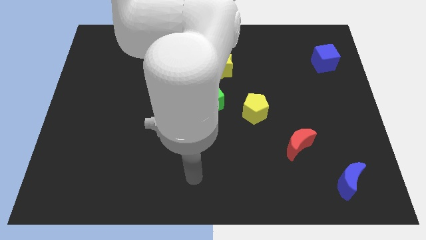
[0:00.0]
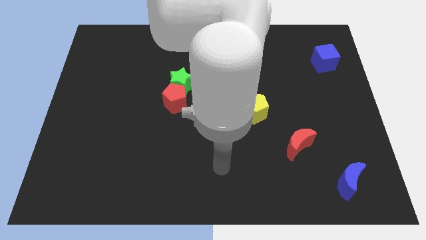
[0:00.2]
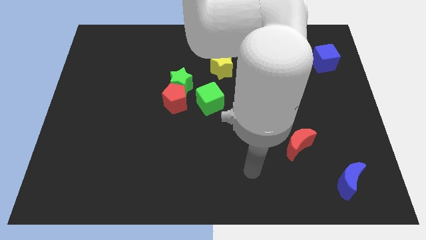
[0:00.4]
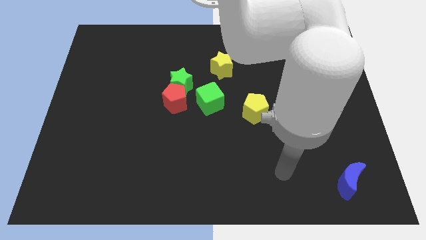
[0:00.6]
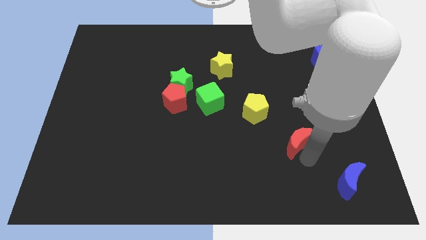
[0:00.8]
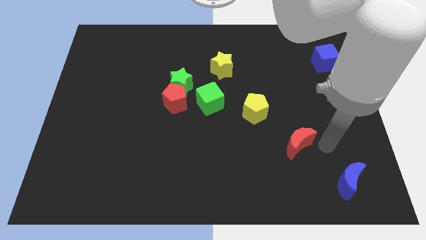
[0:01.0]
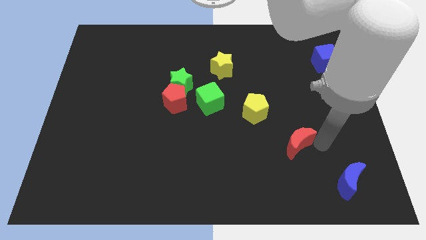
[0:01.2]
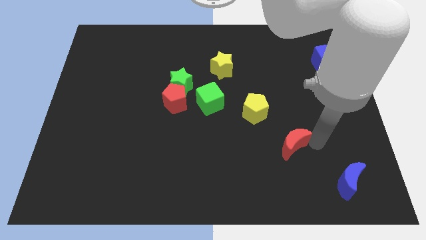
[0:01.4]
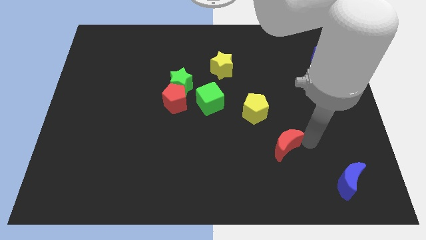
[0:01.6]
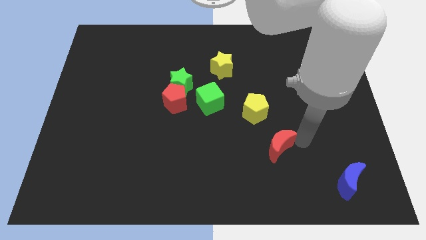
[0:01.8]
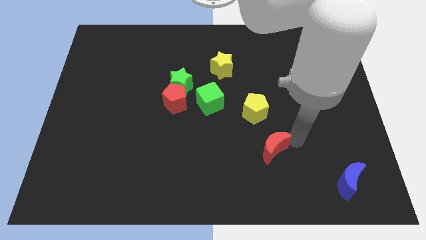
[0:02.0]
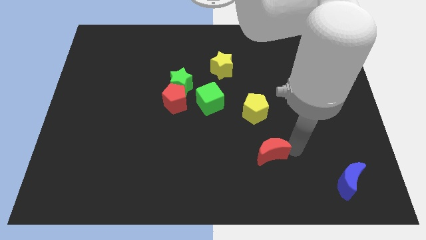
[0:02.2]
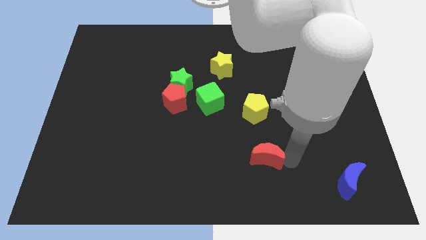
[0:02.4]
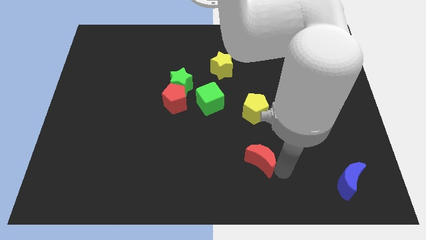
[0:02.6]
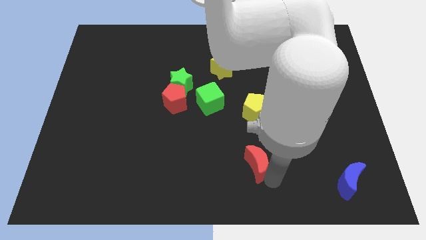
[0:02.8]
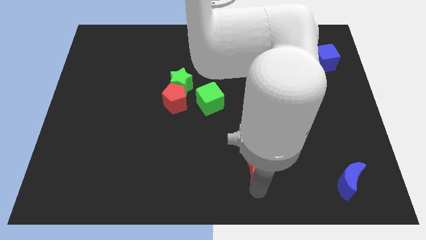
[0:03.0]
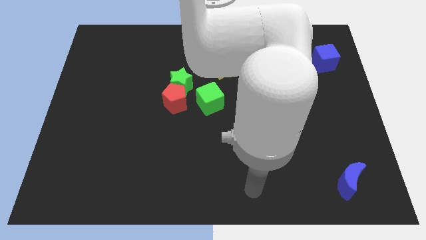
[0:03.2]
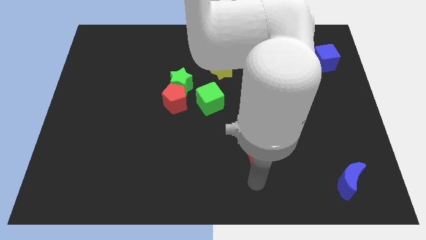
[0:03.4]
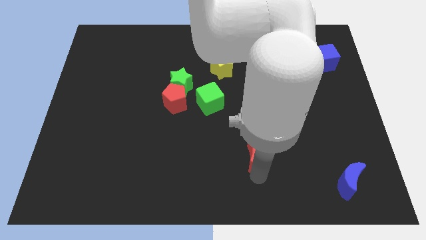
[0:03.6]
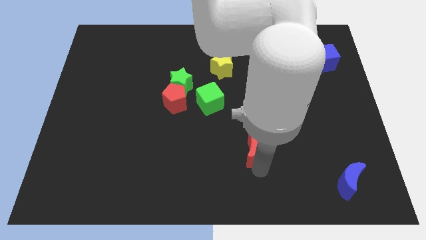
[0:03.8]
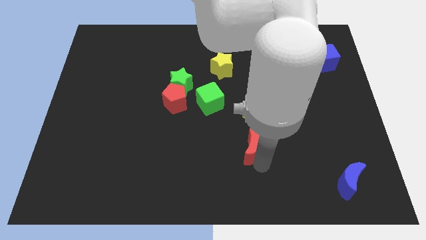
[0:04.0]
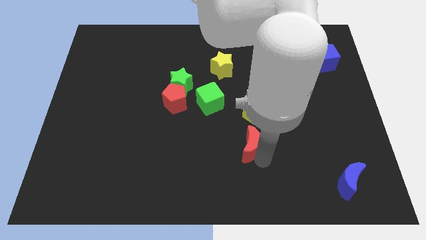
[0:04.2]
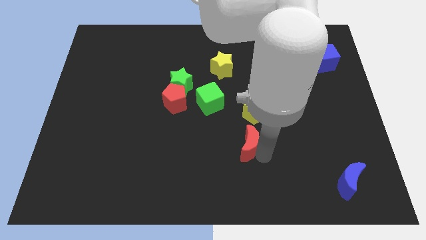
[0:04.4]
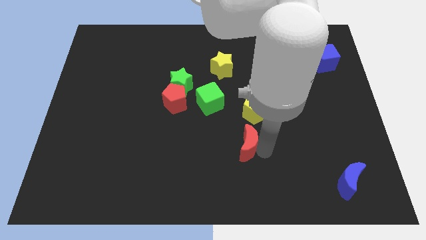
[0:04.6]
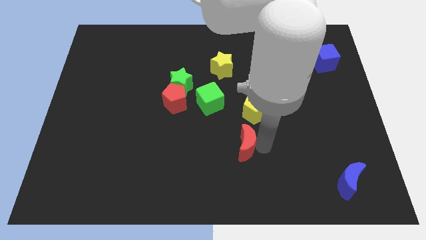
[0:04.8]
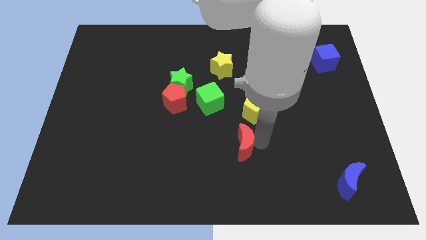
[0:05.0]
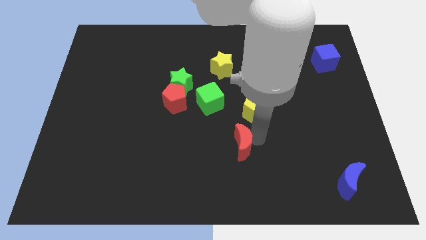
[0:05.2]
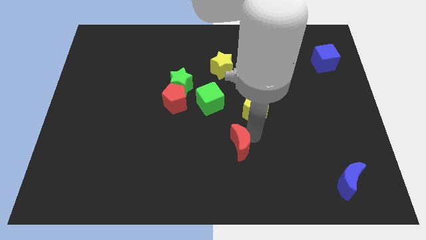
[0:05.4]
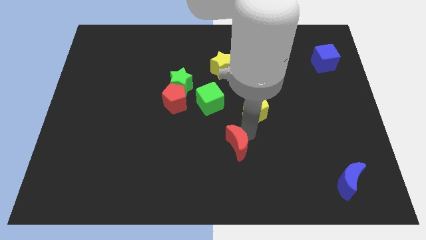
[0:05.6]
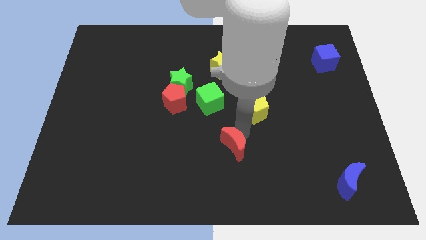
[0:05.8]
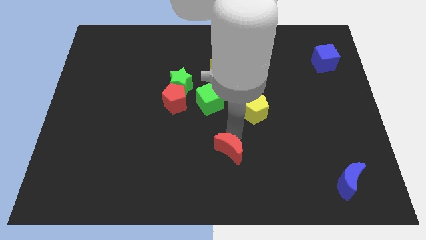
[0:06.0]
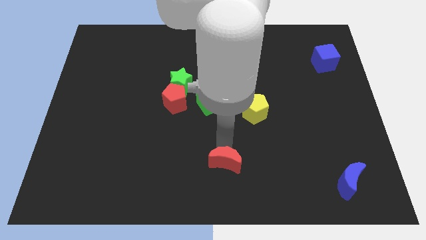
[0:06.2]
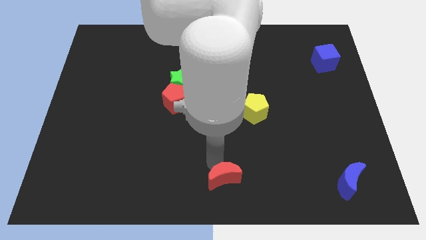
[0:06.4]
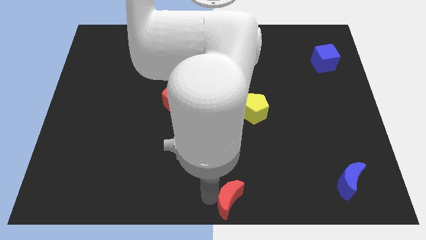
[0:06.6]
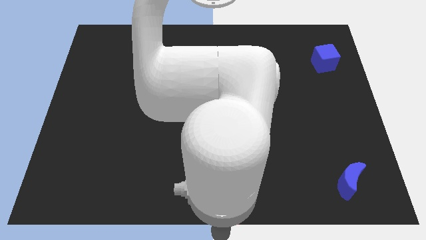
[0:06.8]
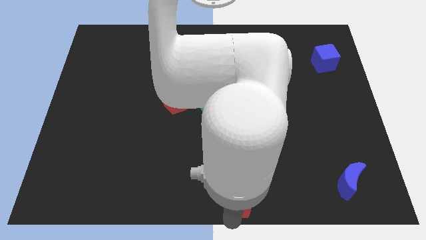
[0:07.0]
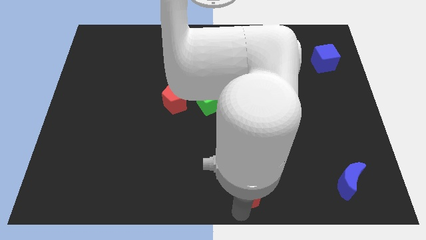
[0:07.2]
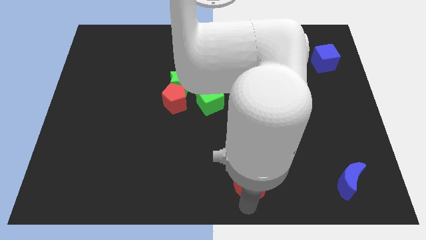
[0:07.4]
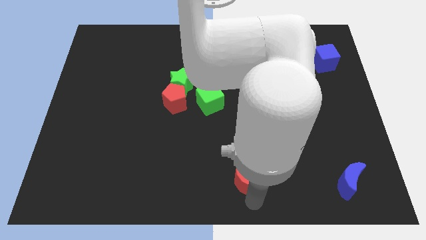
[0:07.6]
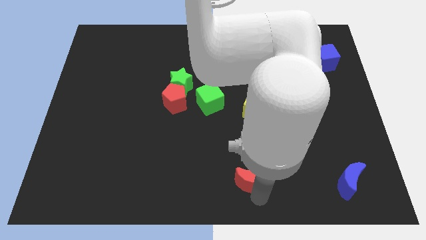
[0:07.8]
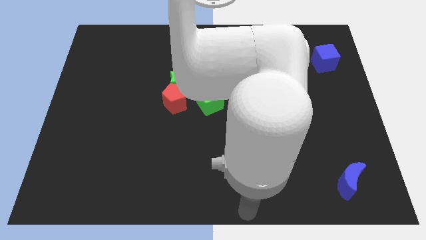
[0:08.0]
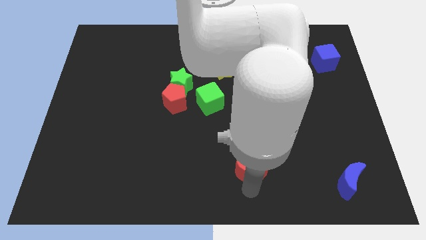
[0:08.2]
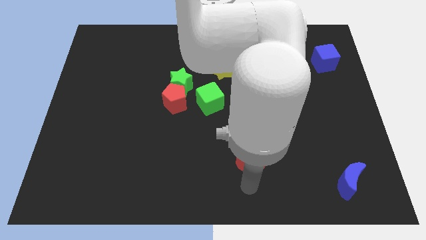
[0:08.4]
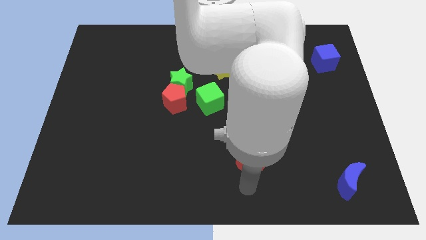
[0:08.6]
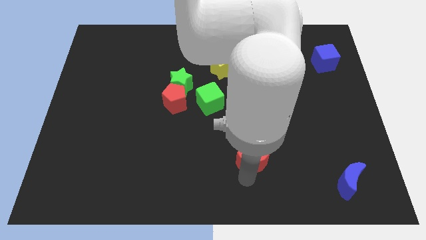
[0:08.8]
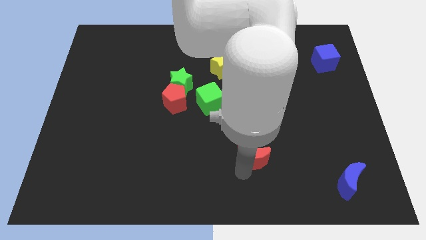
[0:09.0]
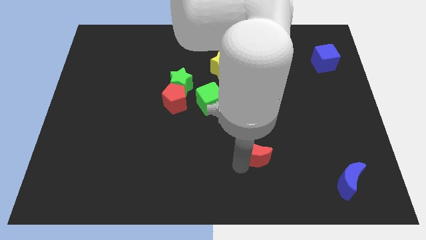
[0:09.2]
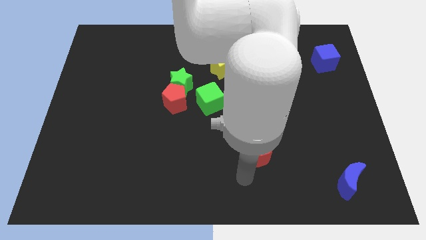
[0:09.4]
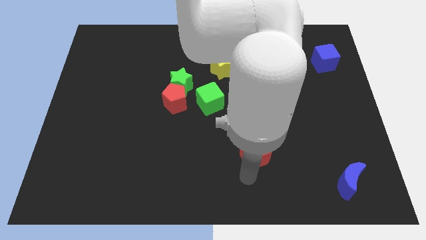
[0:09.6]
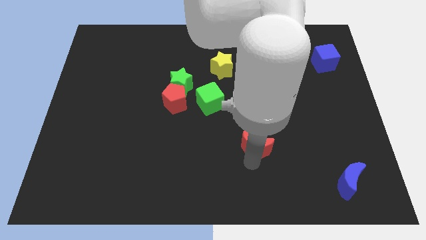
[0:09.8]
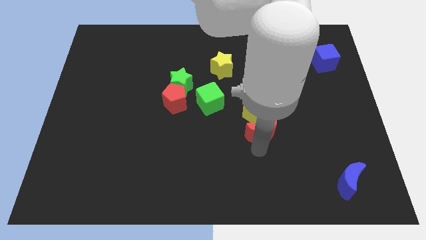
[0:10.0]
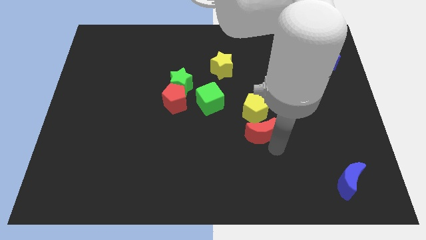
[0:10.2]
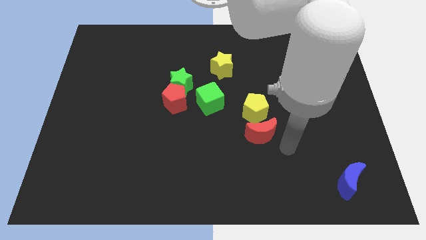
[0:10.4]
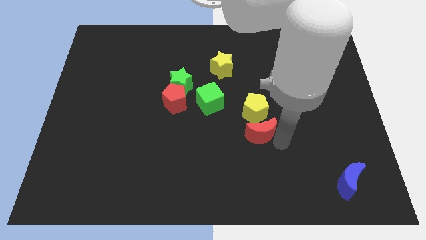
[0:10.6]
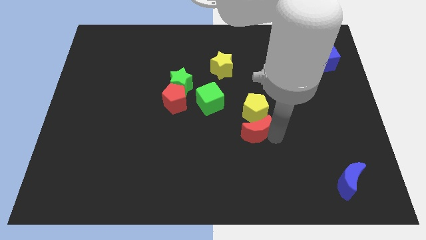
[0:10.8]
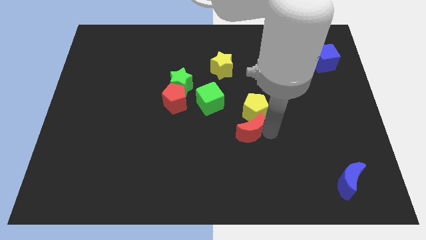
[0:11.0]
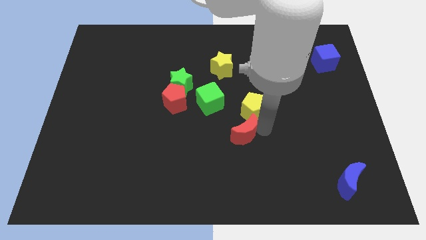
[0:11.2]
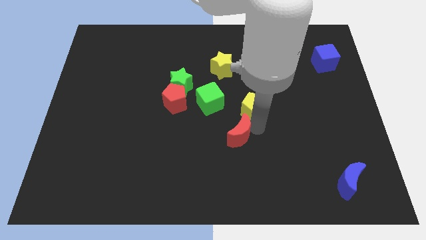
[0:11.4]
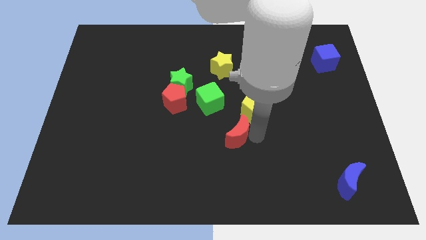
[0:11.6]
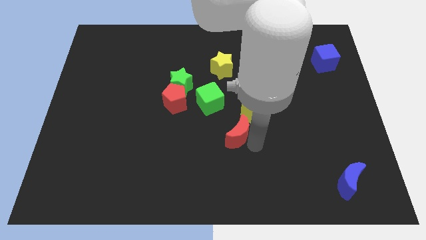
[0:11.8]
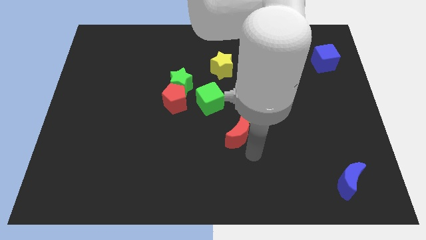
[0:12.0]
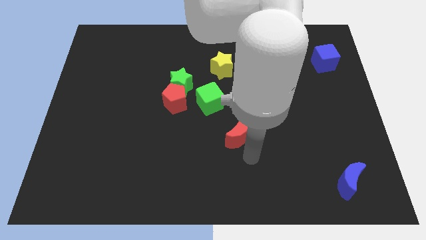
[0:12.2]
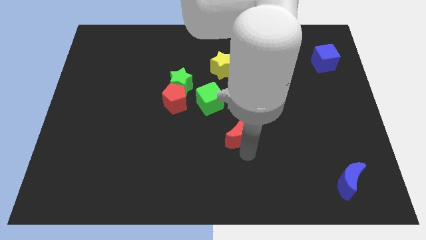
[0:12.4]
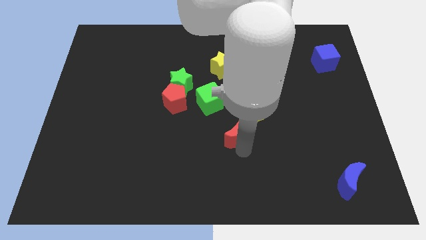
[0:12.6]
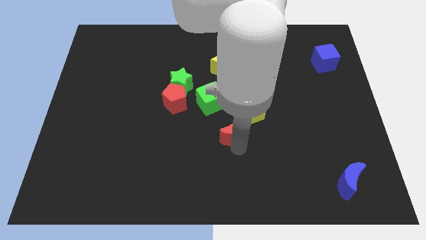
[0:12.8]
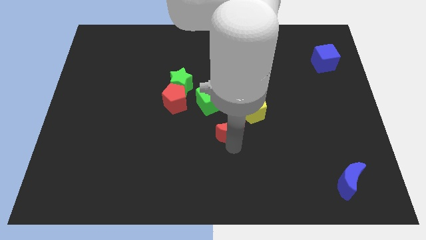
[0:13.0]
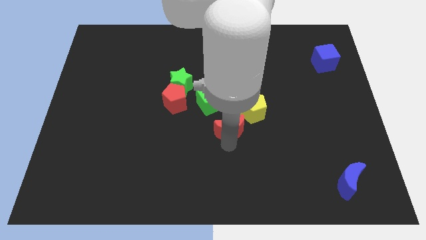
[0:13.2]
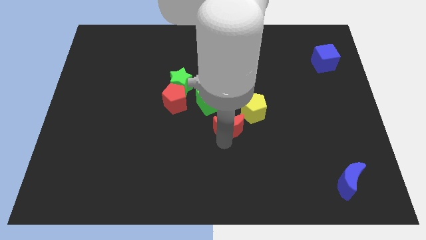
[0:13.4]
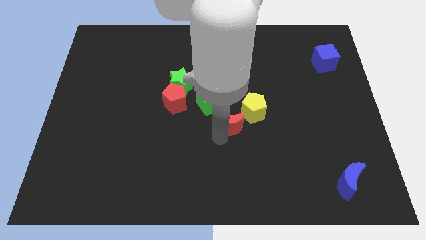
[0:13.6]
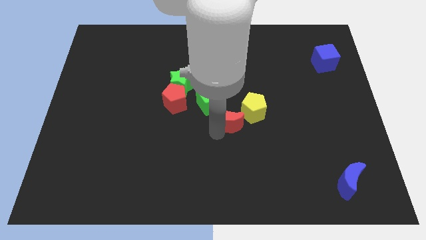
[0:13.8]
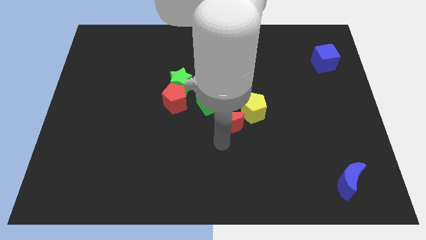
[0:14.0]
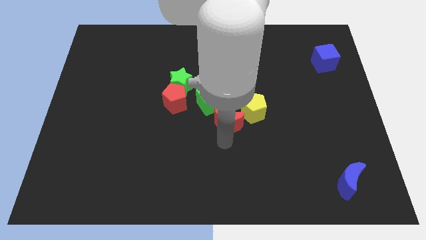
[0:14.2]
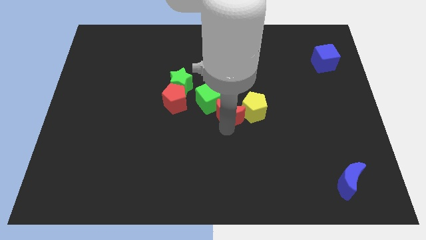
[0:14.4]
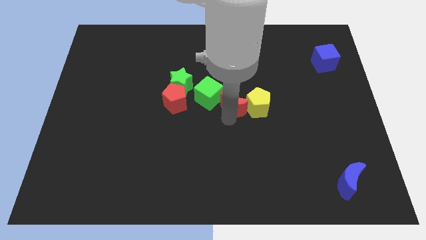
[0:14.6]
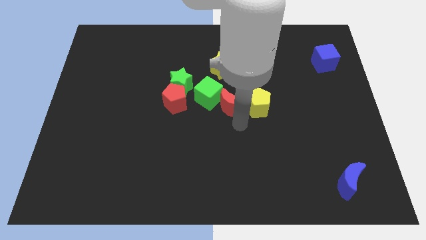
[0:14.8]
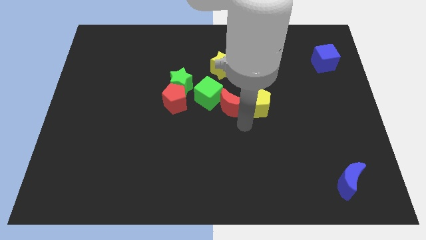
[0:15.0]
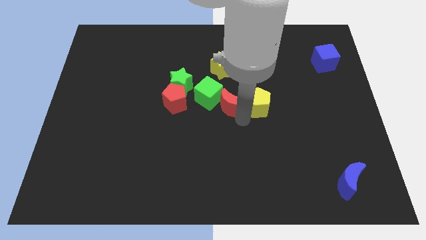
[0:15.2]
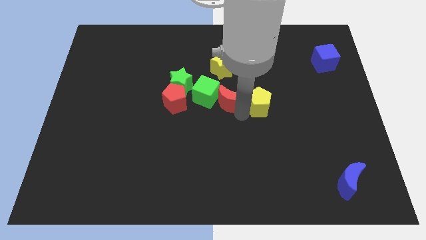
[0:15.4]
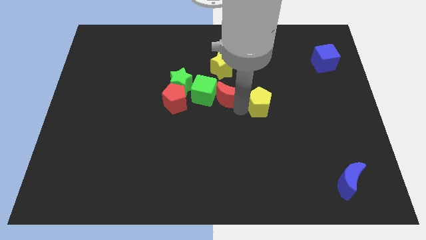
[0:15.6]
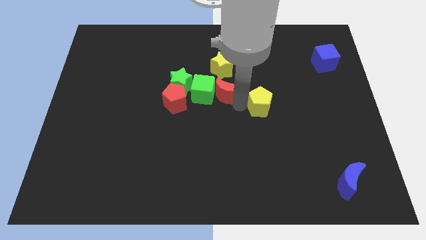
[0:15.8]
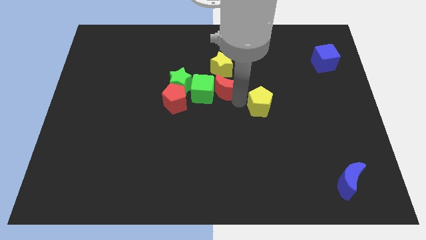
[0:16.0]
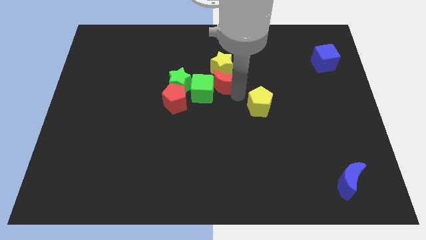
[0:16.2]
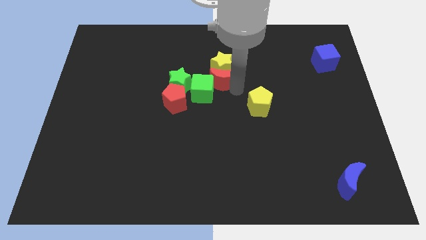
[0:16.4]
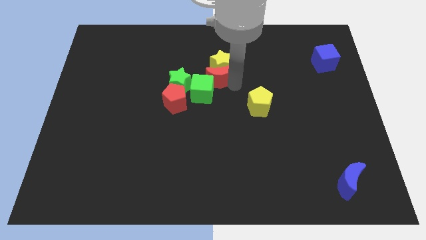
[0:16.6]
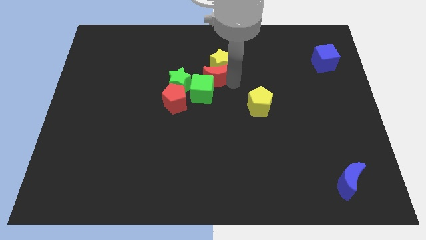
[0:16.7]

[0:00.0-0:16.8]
slide the red moon to the top right side of the green star
